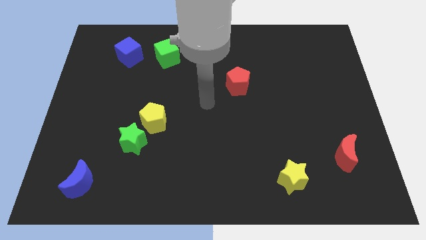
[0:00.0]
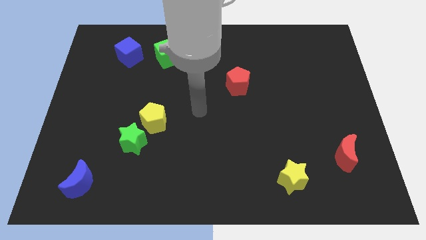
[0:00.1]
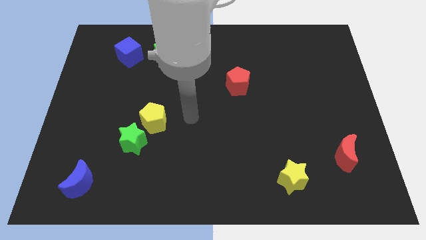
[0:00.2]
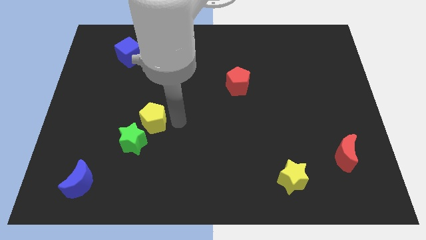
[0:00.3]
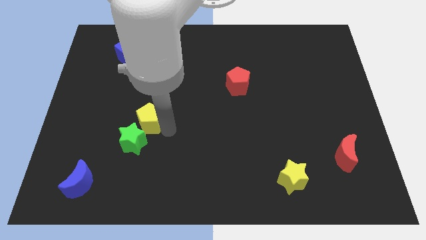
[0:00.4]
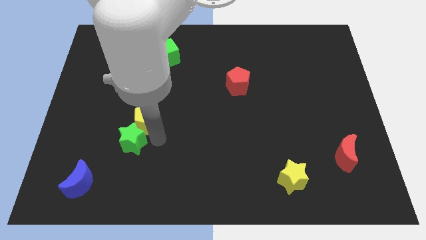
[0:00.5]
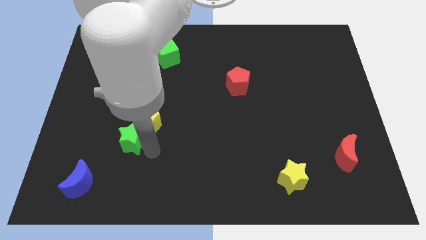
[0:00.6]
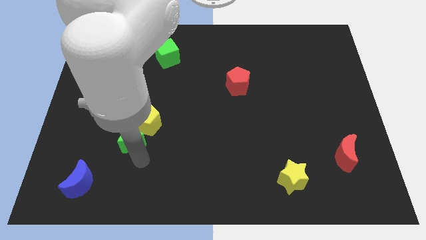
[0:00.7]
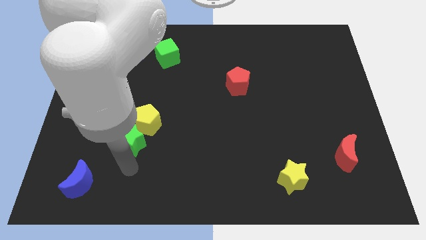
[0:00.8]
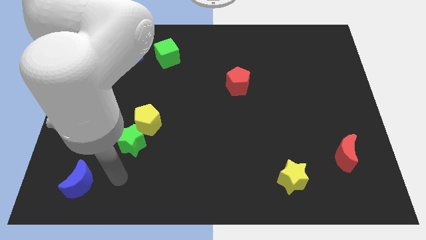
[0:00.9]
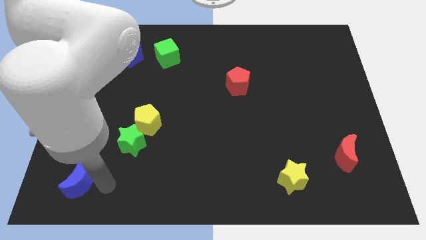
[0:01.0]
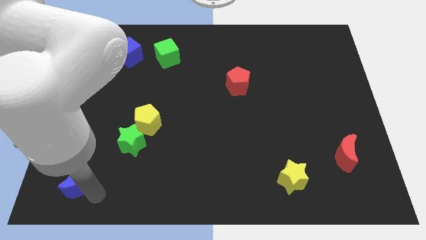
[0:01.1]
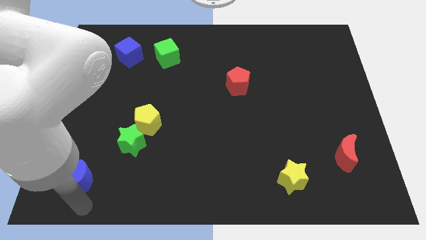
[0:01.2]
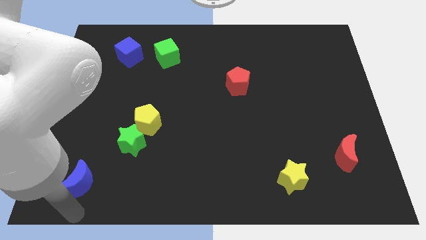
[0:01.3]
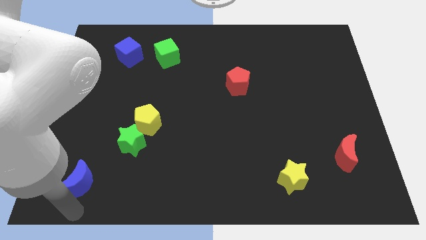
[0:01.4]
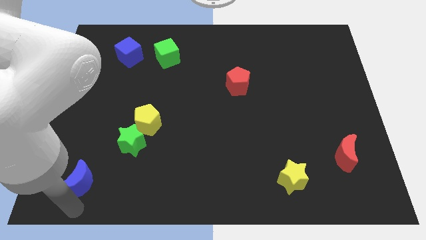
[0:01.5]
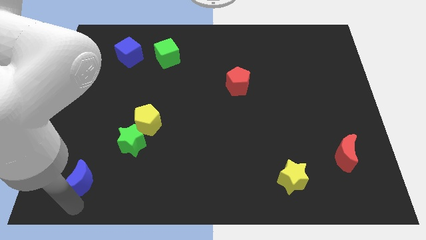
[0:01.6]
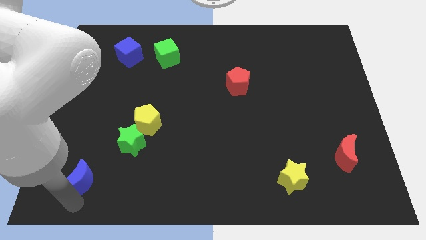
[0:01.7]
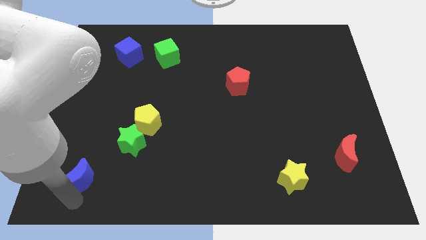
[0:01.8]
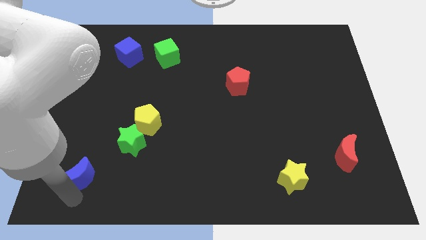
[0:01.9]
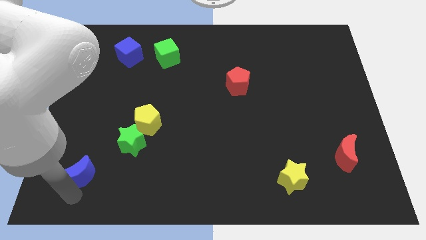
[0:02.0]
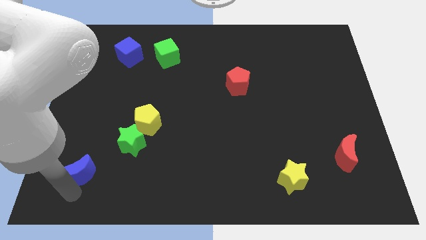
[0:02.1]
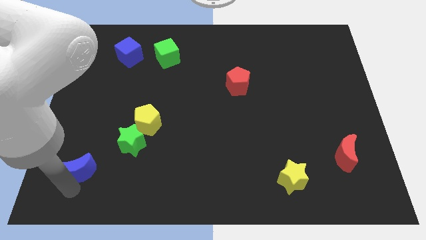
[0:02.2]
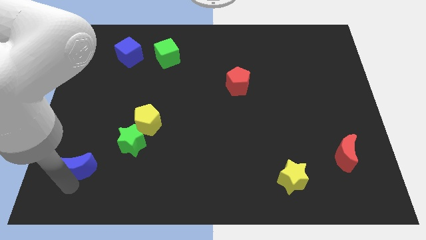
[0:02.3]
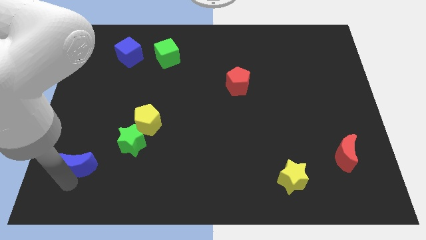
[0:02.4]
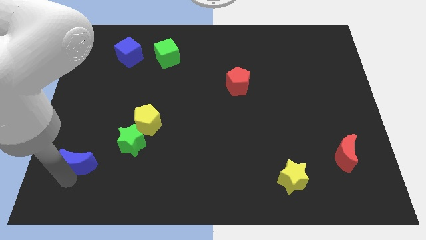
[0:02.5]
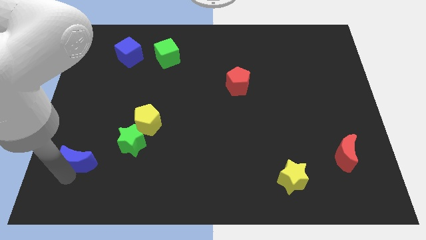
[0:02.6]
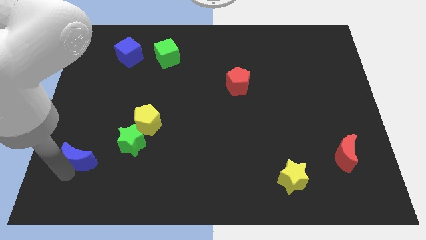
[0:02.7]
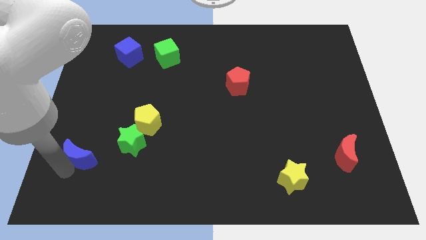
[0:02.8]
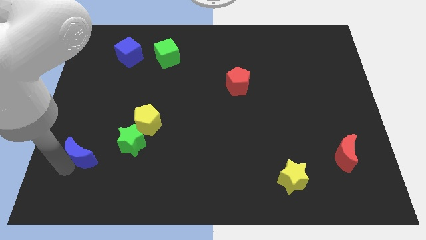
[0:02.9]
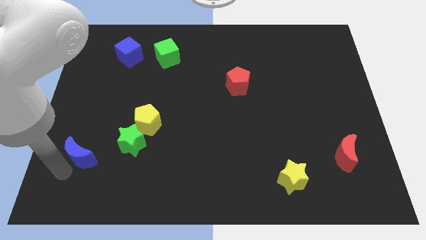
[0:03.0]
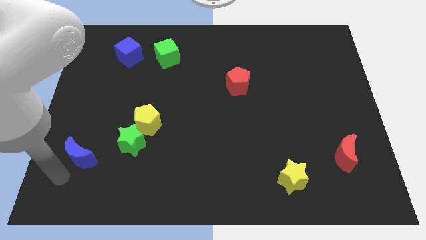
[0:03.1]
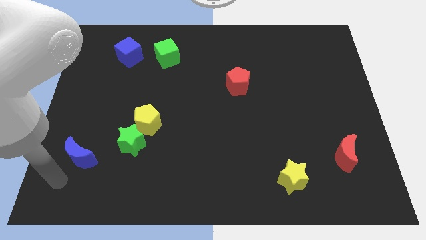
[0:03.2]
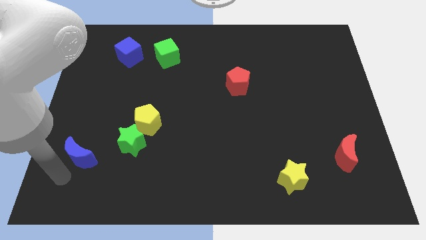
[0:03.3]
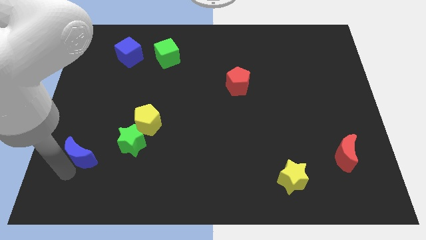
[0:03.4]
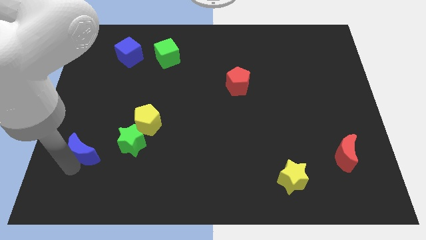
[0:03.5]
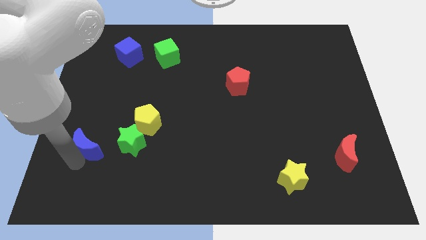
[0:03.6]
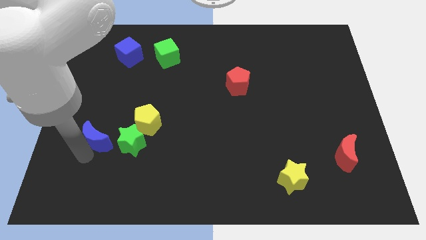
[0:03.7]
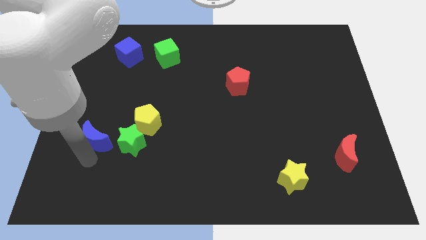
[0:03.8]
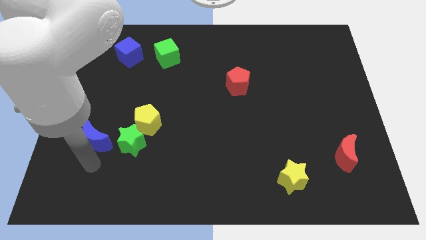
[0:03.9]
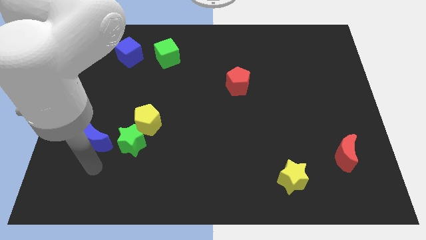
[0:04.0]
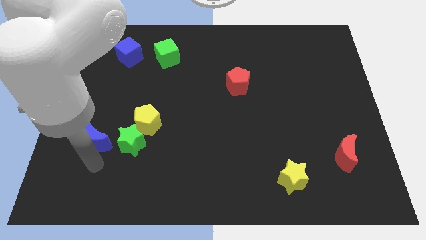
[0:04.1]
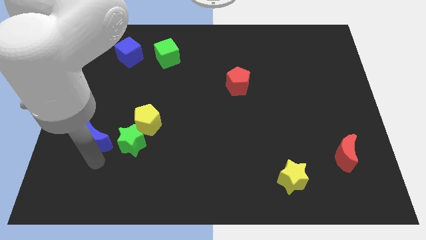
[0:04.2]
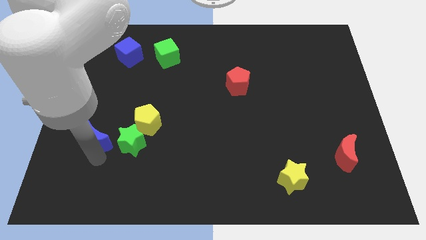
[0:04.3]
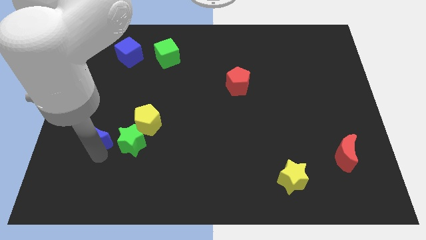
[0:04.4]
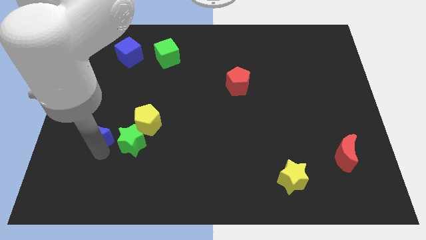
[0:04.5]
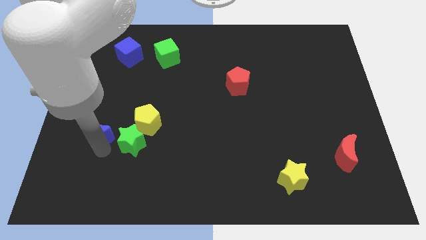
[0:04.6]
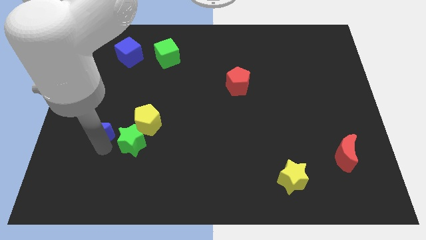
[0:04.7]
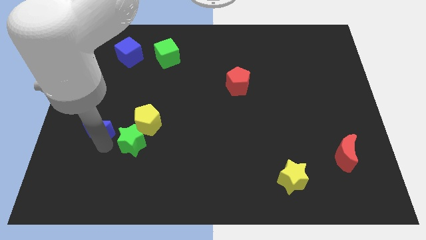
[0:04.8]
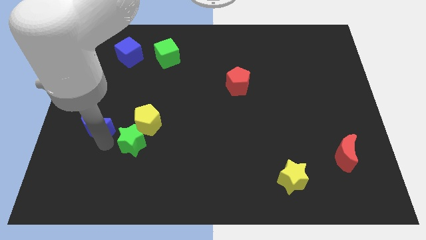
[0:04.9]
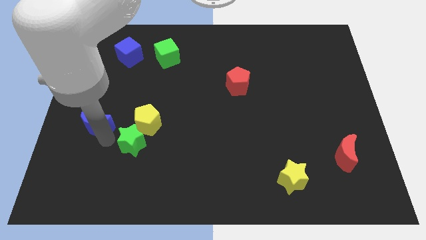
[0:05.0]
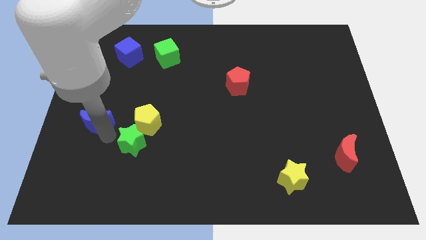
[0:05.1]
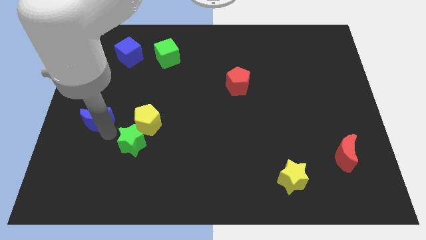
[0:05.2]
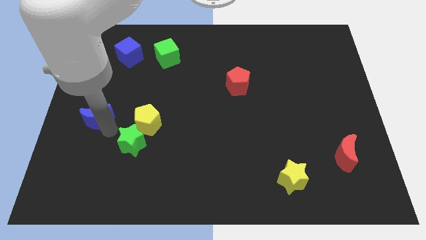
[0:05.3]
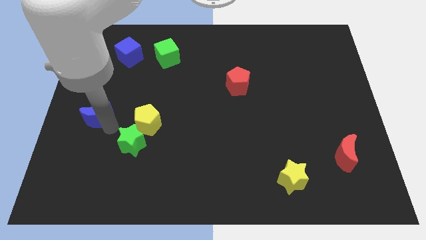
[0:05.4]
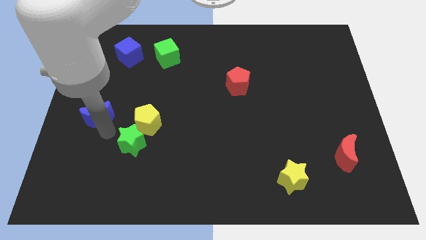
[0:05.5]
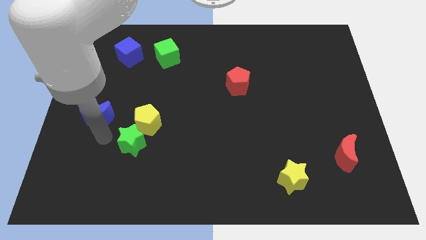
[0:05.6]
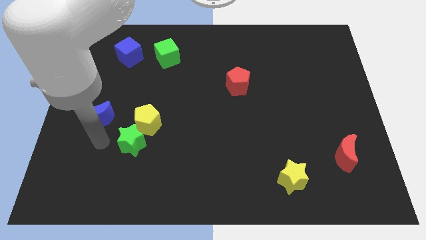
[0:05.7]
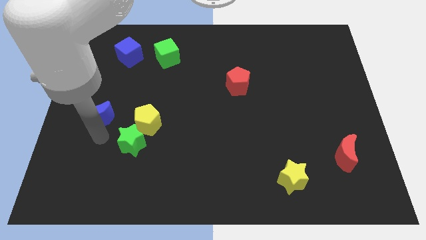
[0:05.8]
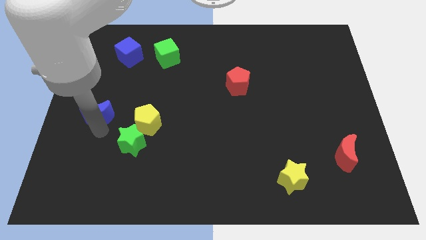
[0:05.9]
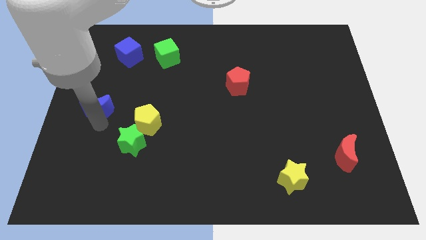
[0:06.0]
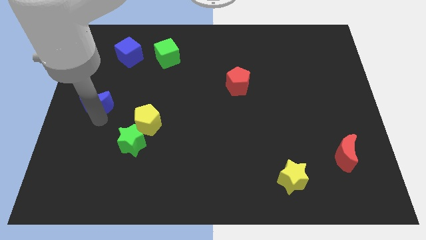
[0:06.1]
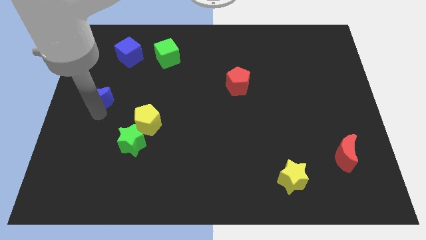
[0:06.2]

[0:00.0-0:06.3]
slide the blue moon up

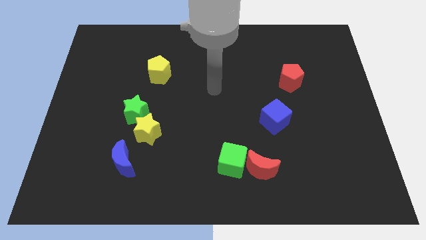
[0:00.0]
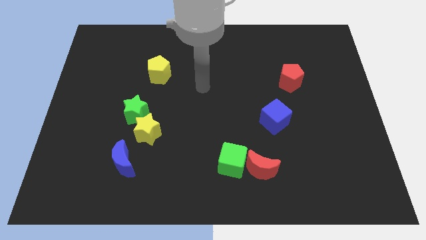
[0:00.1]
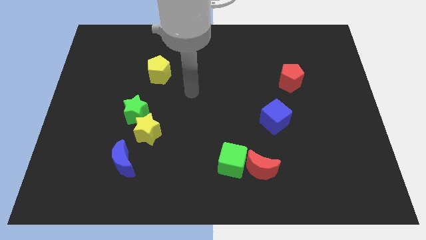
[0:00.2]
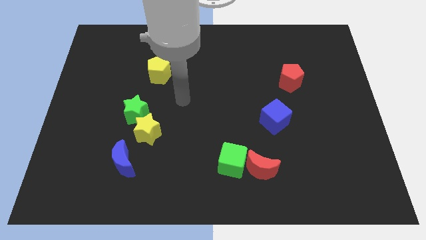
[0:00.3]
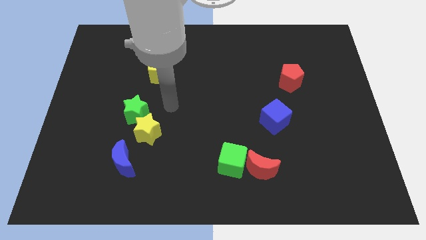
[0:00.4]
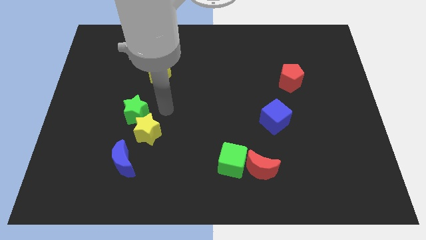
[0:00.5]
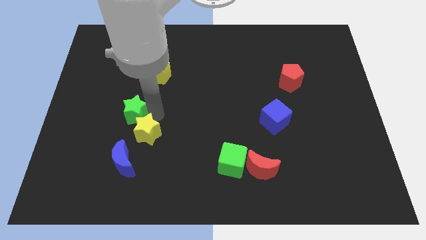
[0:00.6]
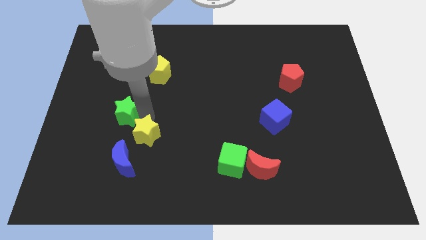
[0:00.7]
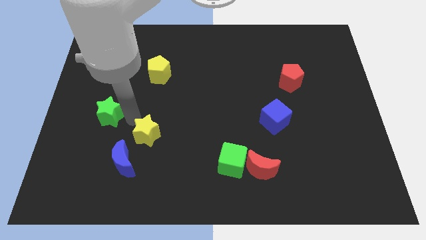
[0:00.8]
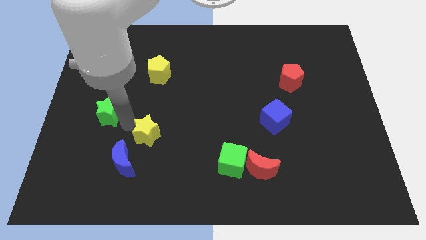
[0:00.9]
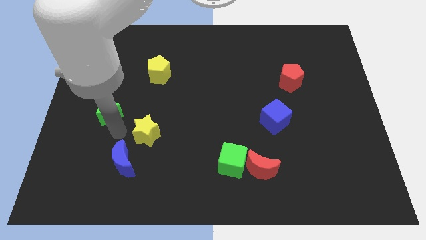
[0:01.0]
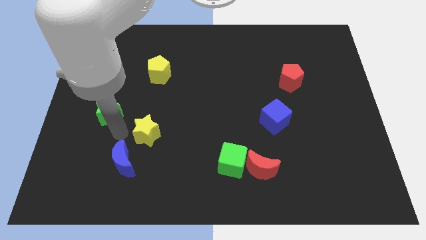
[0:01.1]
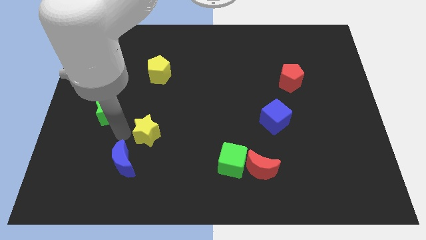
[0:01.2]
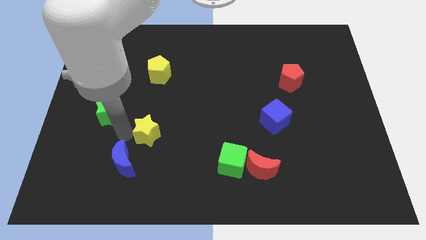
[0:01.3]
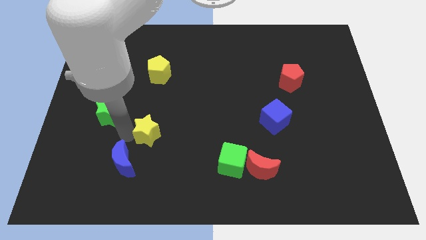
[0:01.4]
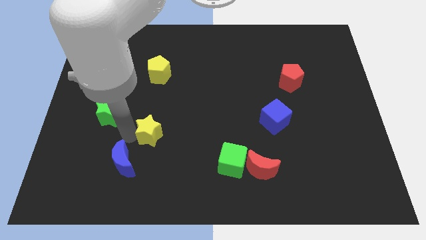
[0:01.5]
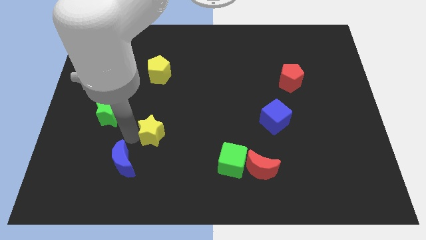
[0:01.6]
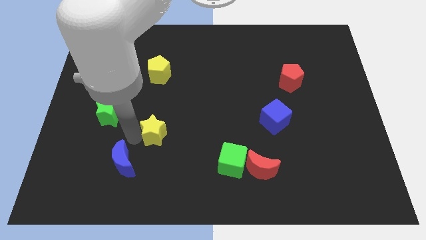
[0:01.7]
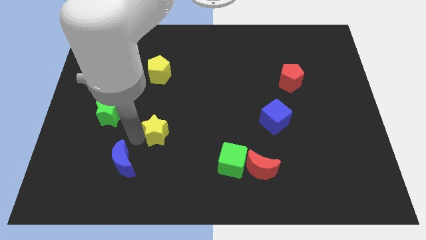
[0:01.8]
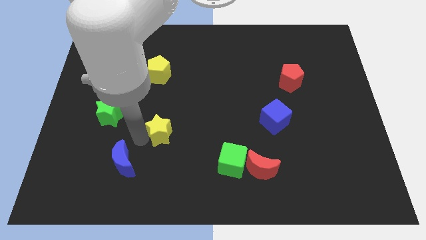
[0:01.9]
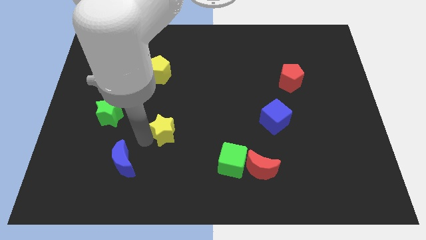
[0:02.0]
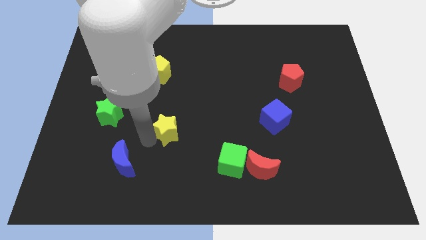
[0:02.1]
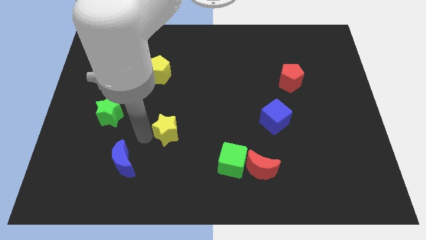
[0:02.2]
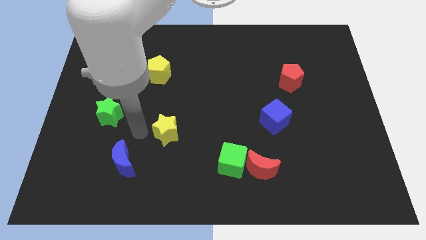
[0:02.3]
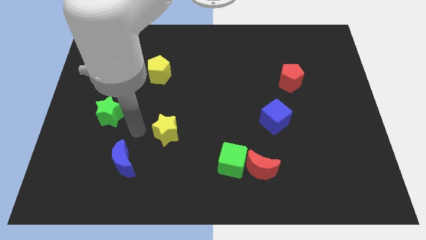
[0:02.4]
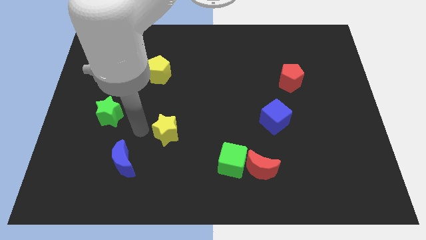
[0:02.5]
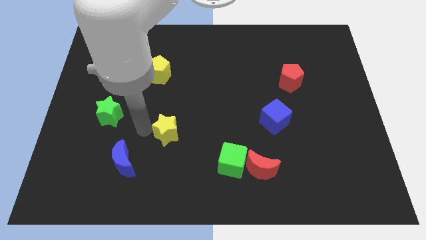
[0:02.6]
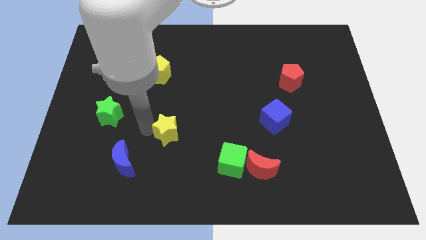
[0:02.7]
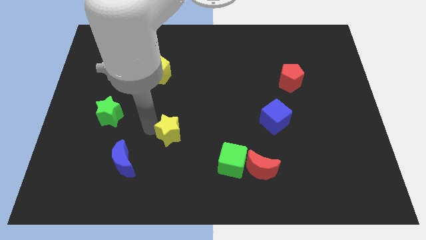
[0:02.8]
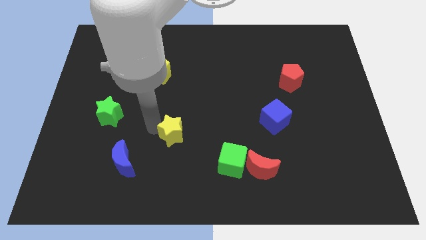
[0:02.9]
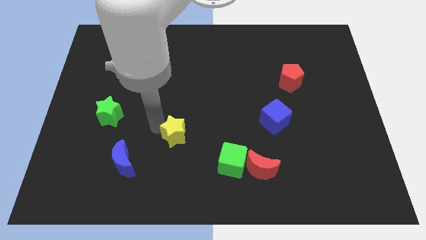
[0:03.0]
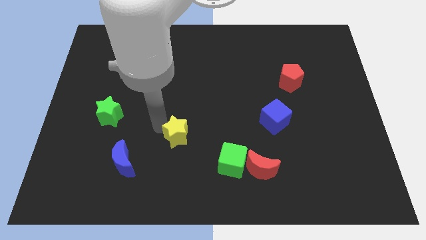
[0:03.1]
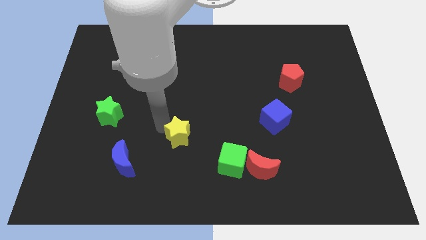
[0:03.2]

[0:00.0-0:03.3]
move the yellow star right somewhat
